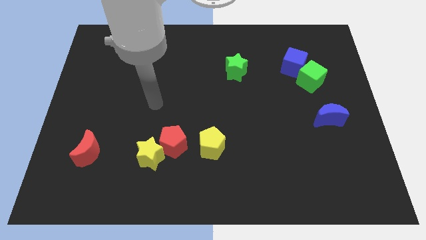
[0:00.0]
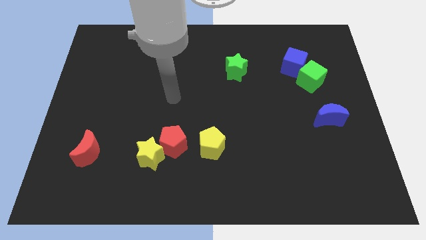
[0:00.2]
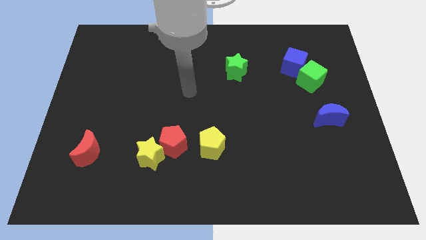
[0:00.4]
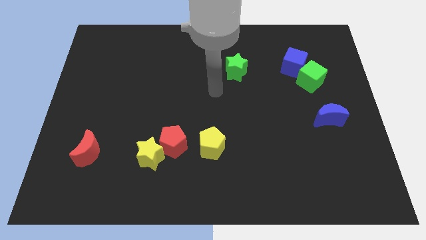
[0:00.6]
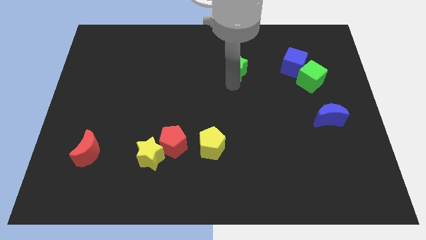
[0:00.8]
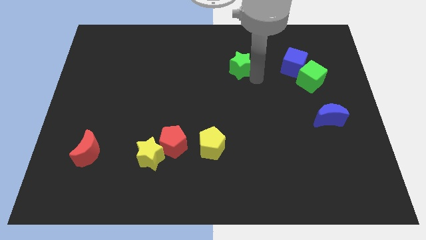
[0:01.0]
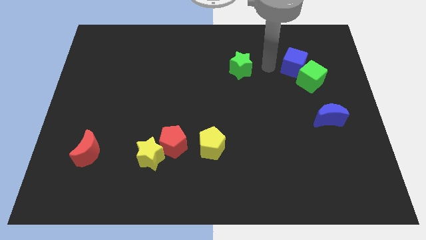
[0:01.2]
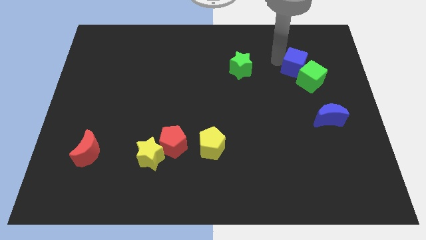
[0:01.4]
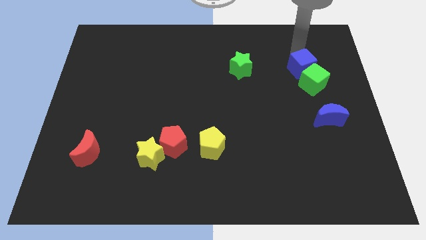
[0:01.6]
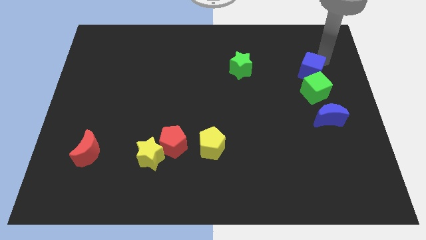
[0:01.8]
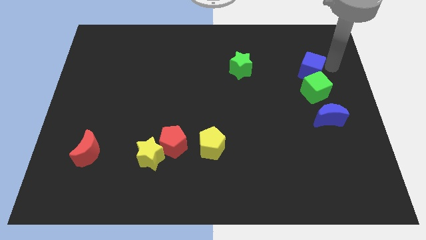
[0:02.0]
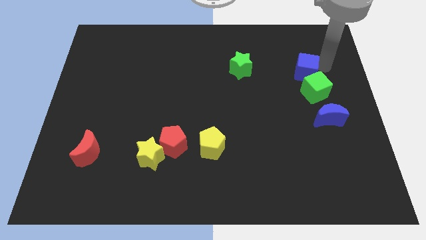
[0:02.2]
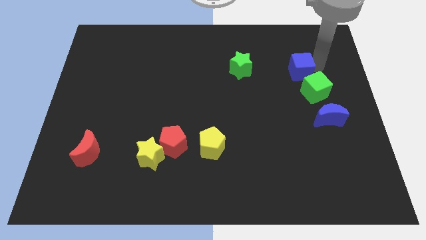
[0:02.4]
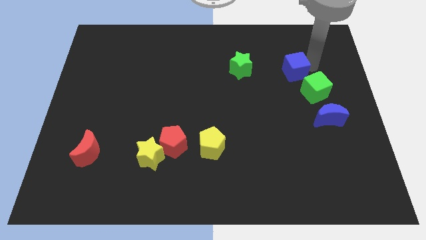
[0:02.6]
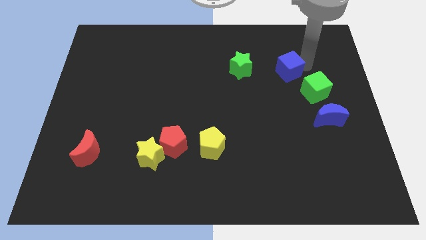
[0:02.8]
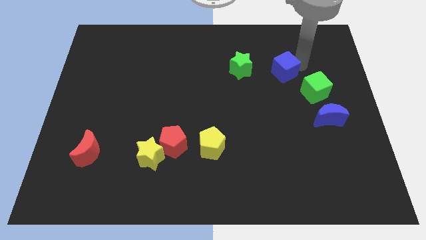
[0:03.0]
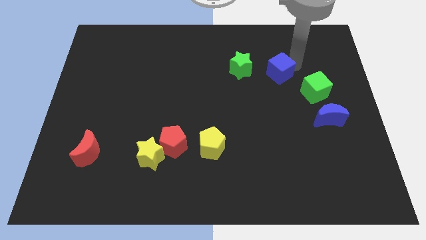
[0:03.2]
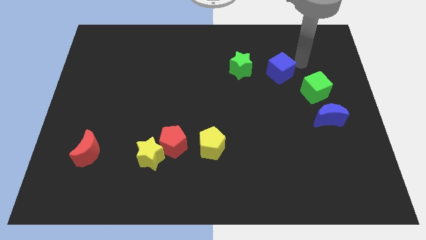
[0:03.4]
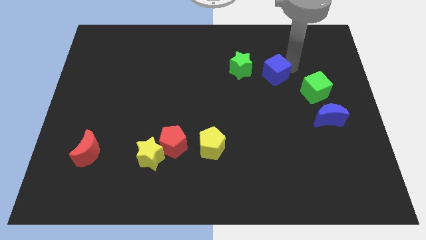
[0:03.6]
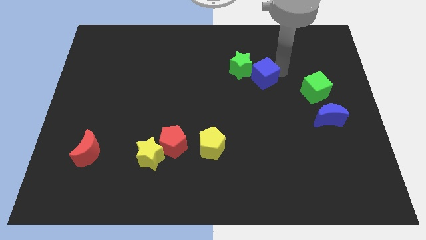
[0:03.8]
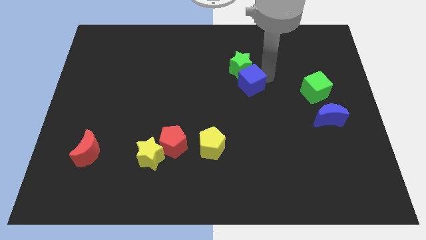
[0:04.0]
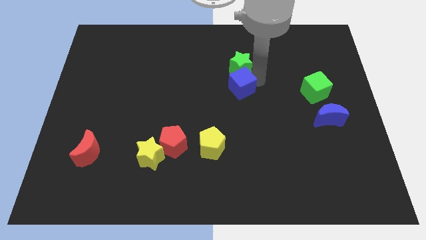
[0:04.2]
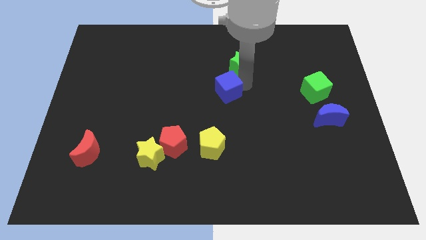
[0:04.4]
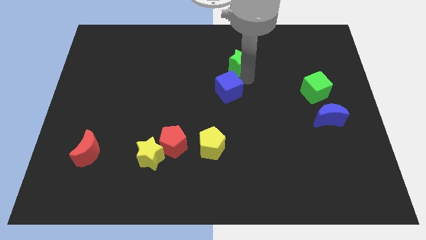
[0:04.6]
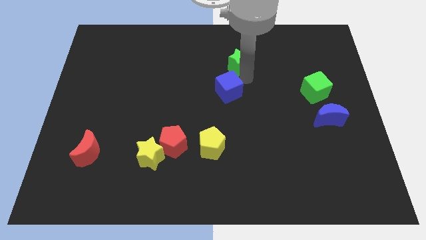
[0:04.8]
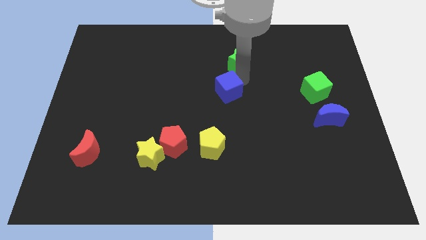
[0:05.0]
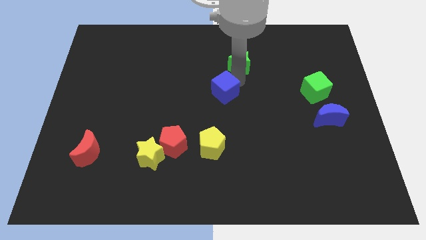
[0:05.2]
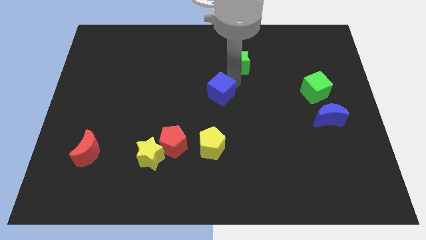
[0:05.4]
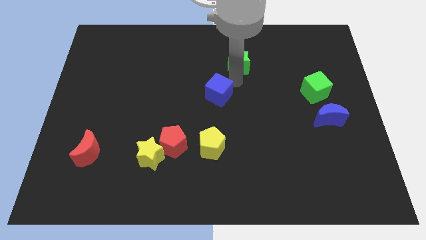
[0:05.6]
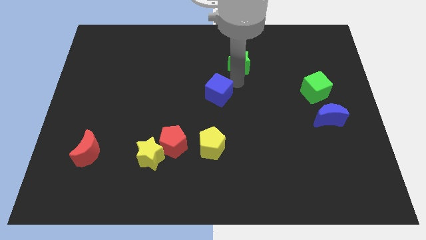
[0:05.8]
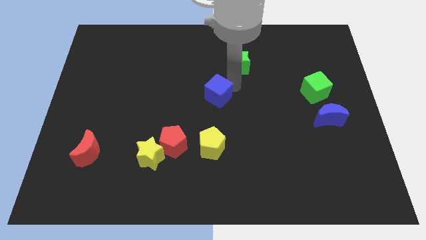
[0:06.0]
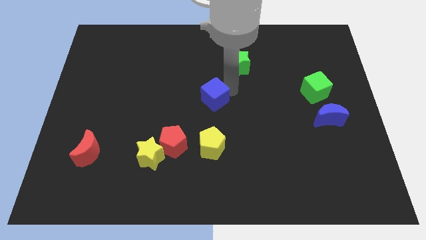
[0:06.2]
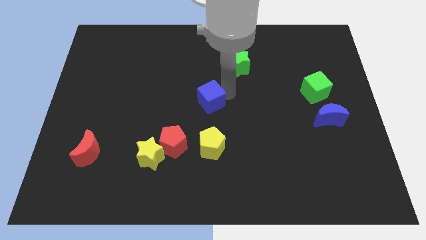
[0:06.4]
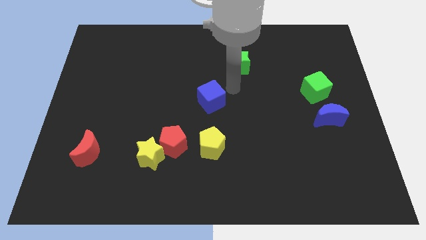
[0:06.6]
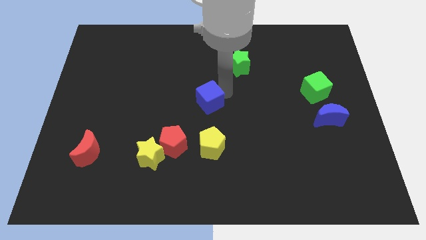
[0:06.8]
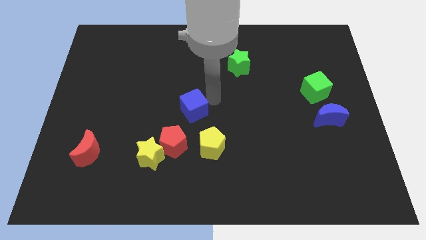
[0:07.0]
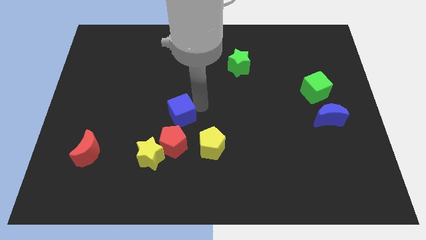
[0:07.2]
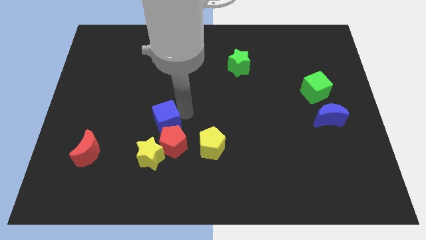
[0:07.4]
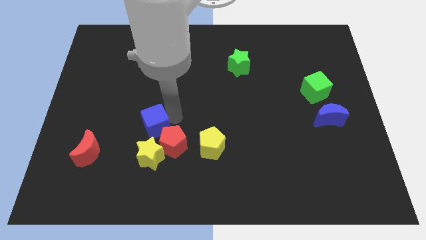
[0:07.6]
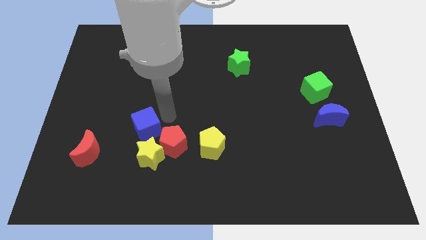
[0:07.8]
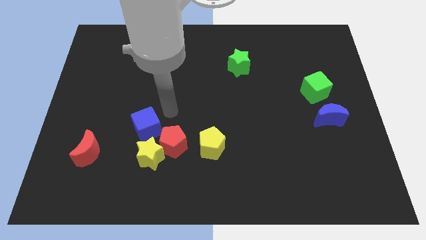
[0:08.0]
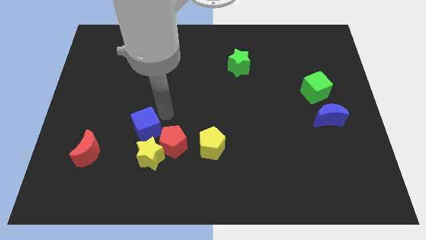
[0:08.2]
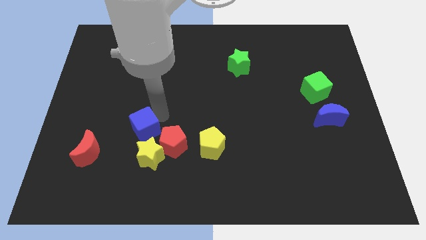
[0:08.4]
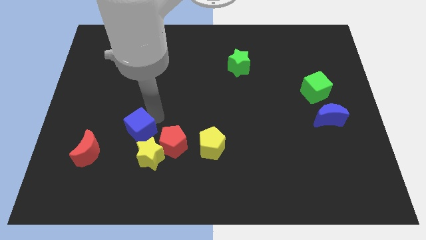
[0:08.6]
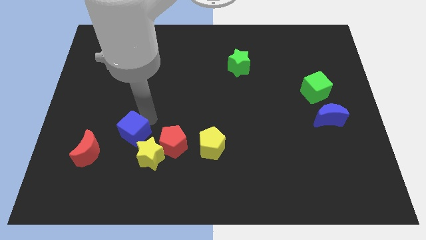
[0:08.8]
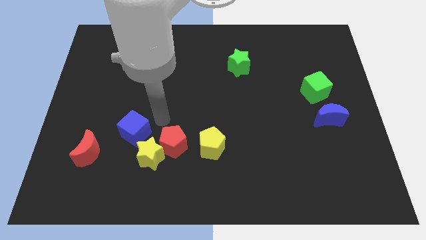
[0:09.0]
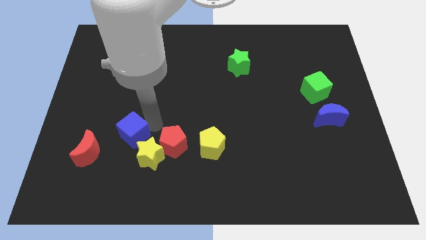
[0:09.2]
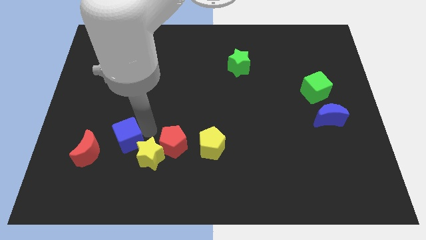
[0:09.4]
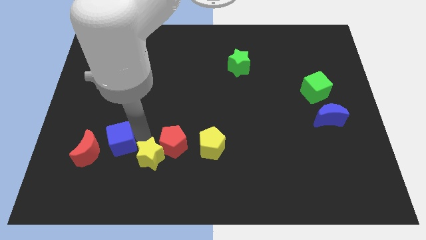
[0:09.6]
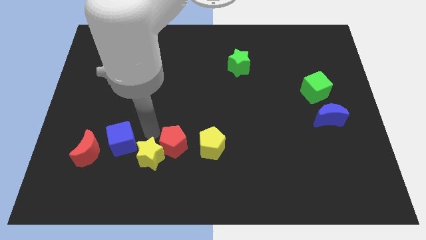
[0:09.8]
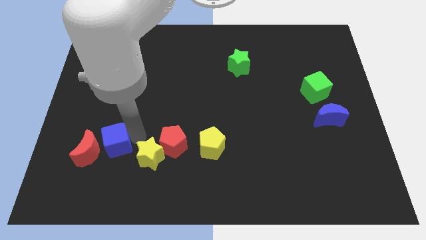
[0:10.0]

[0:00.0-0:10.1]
put the blue cube close to the red moon

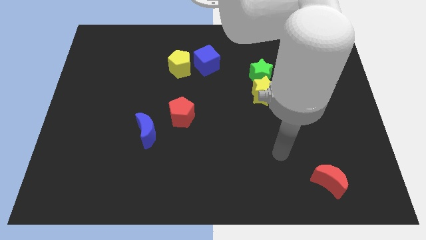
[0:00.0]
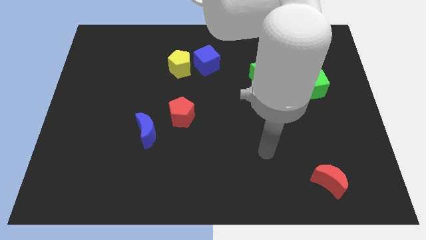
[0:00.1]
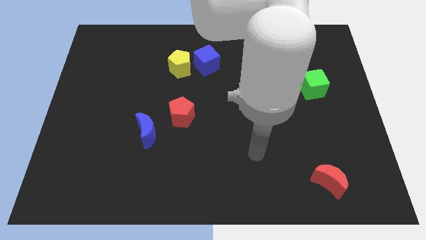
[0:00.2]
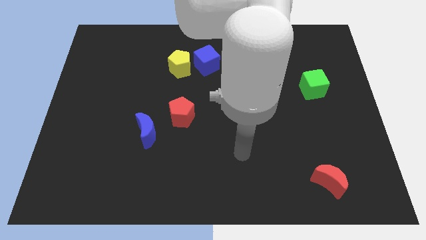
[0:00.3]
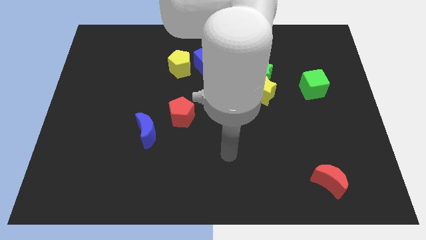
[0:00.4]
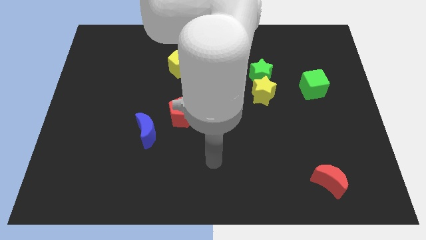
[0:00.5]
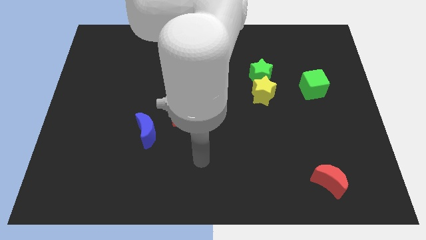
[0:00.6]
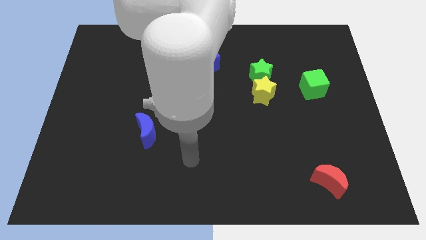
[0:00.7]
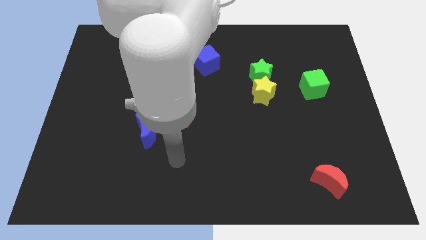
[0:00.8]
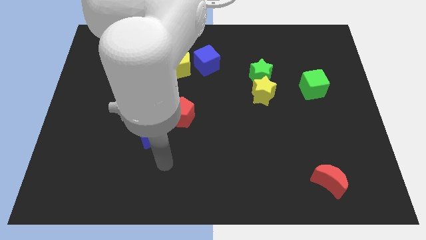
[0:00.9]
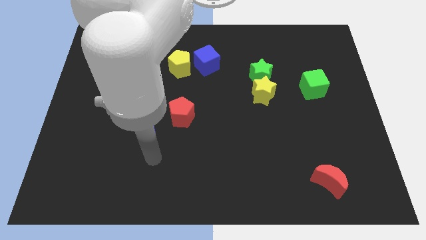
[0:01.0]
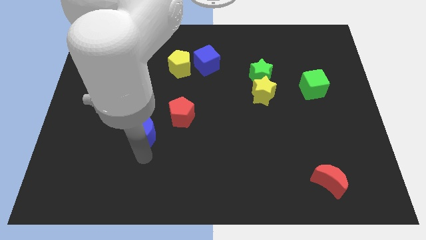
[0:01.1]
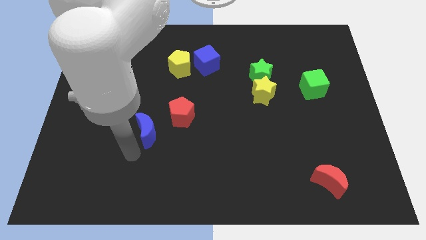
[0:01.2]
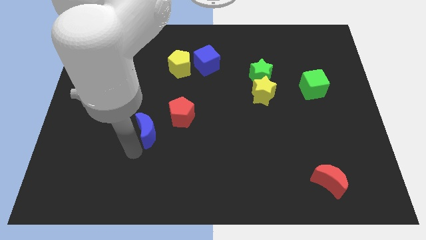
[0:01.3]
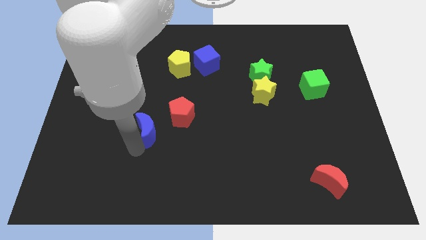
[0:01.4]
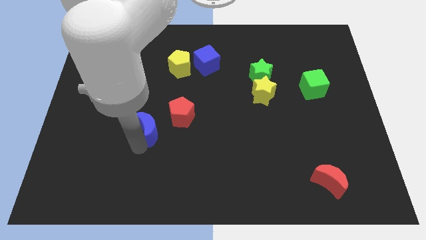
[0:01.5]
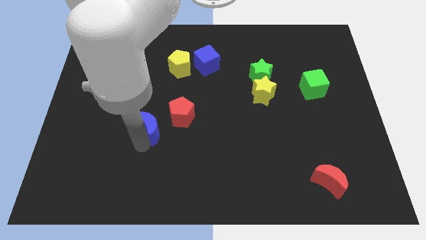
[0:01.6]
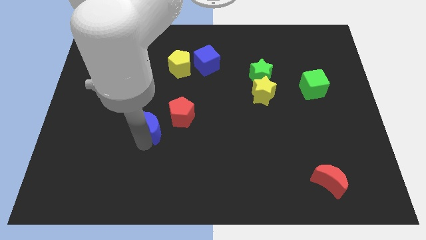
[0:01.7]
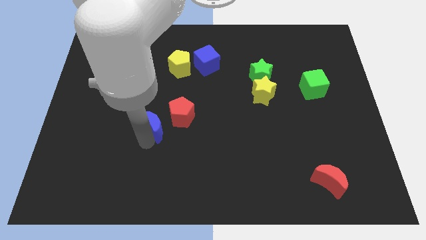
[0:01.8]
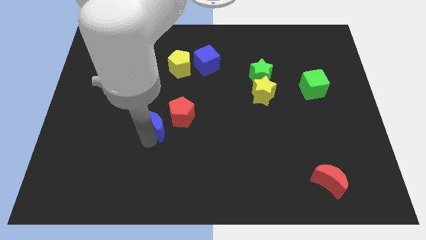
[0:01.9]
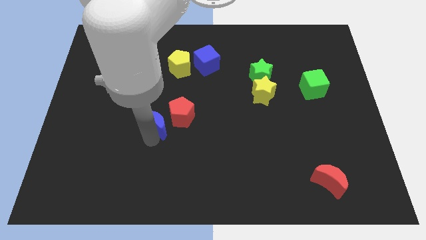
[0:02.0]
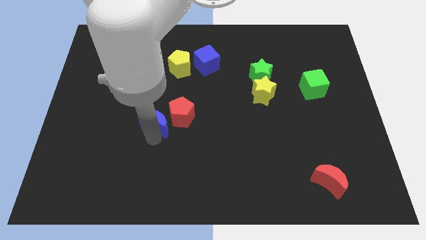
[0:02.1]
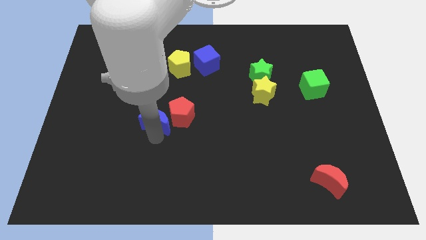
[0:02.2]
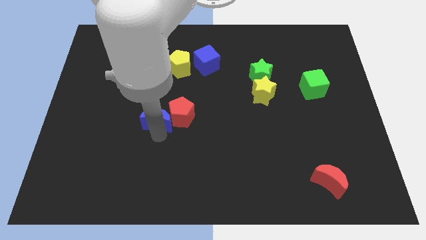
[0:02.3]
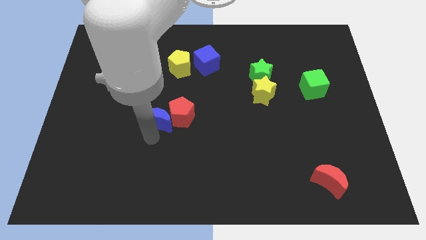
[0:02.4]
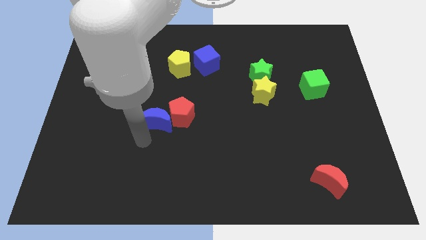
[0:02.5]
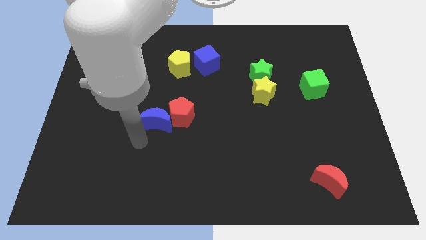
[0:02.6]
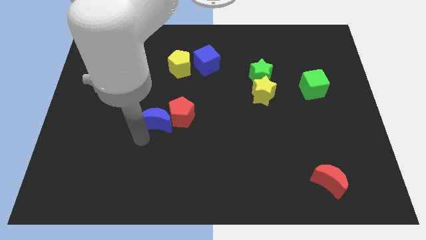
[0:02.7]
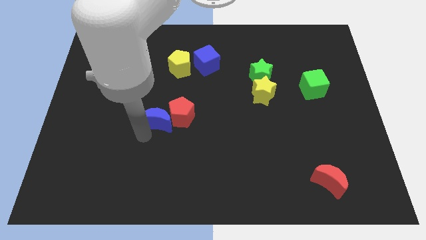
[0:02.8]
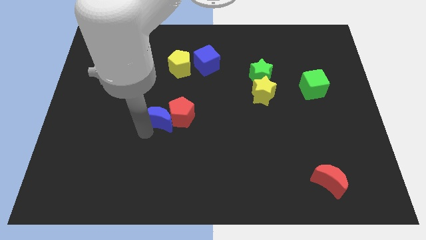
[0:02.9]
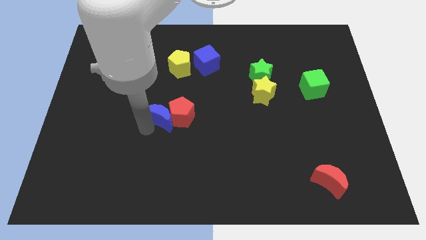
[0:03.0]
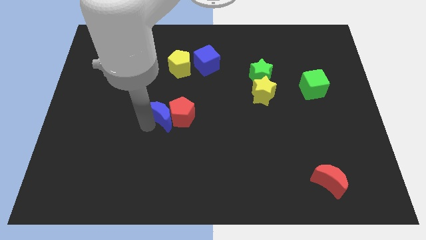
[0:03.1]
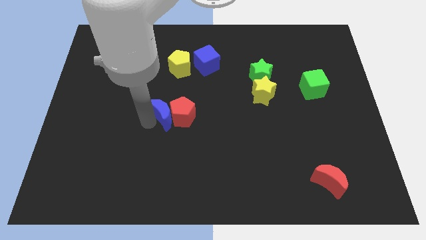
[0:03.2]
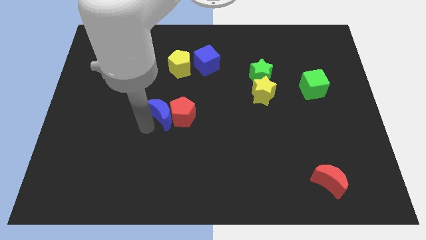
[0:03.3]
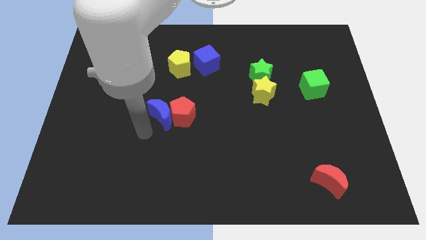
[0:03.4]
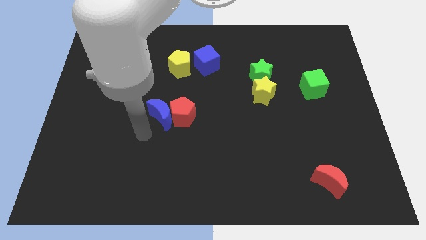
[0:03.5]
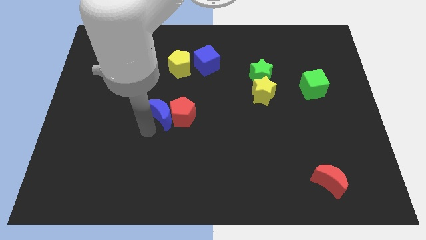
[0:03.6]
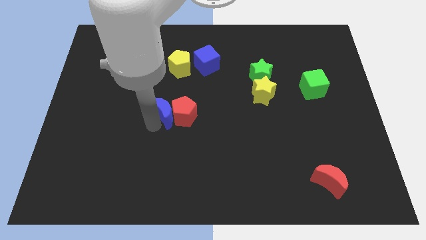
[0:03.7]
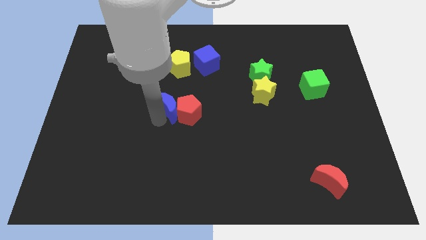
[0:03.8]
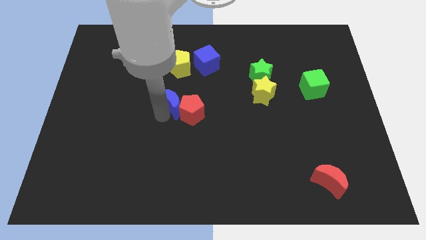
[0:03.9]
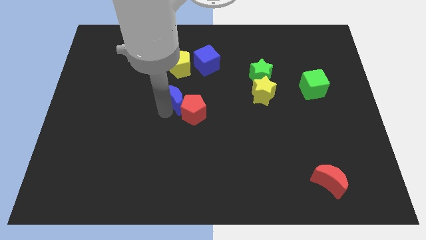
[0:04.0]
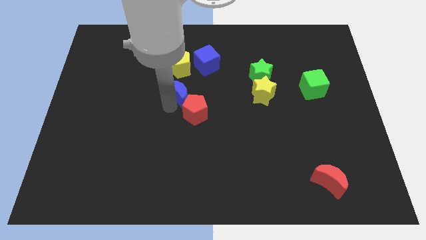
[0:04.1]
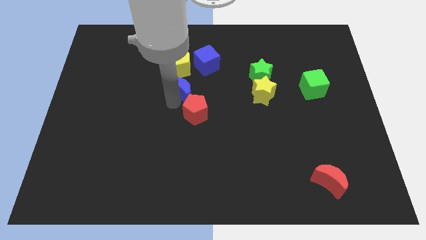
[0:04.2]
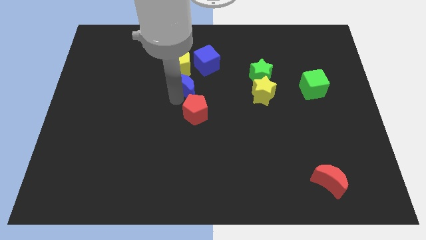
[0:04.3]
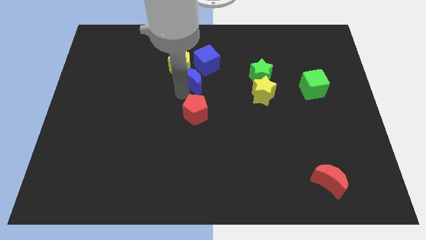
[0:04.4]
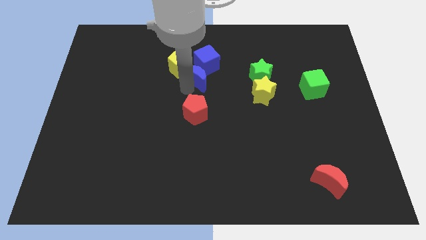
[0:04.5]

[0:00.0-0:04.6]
push the blue moon next to the blue cube
